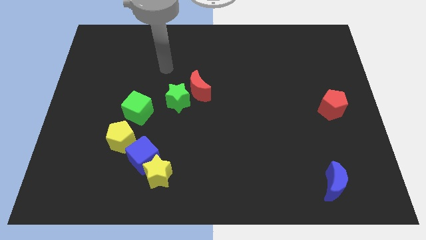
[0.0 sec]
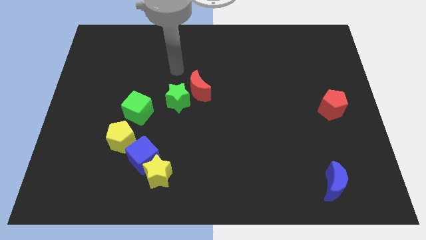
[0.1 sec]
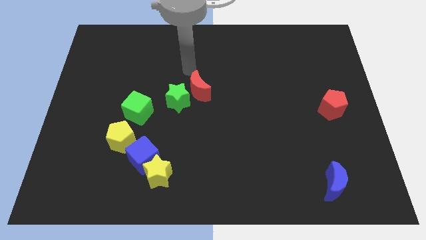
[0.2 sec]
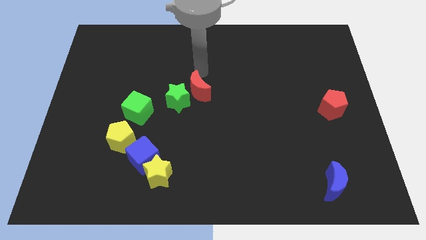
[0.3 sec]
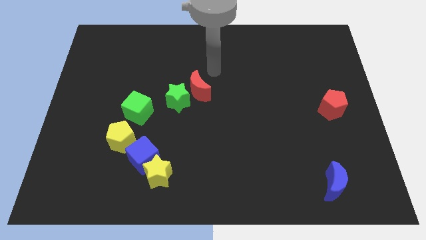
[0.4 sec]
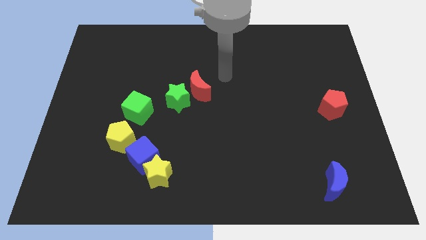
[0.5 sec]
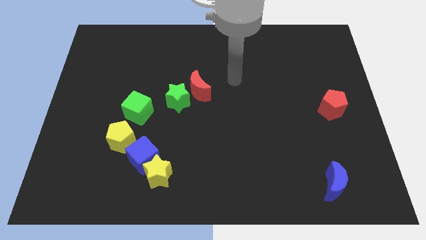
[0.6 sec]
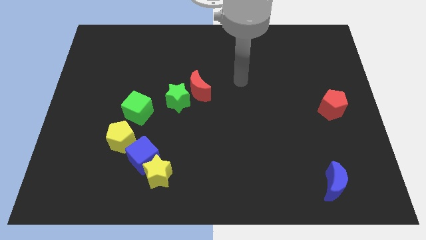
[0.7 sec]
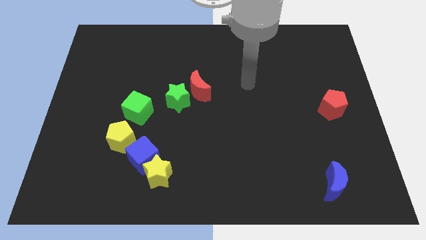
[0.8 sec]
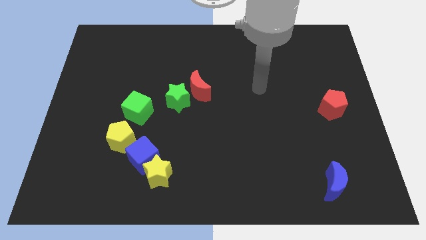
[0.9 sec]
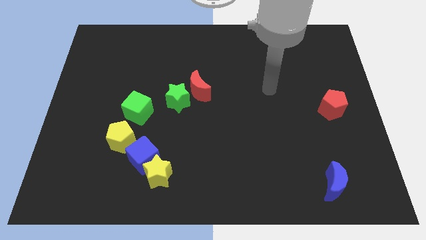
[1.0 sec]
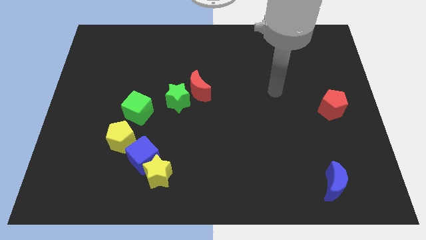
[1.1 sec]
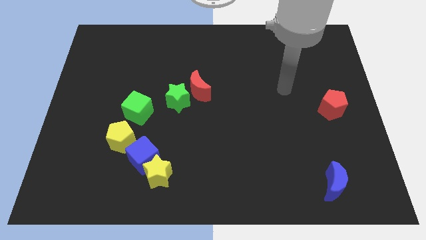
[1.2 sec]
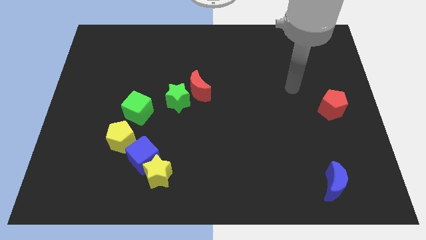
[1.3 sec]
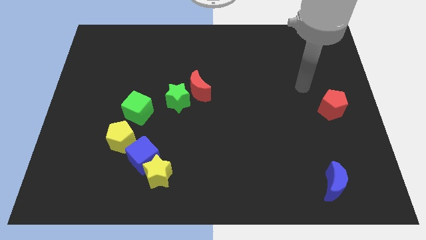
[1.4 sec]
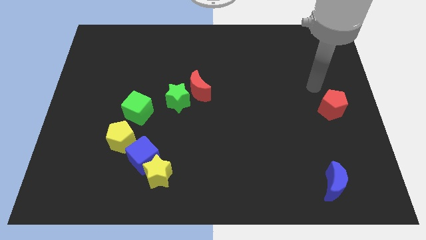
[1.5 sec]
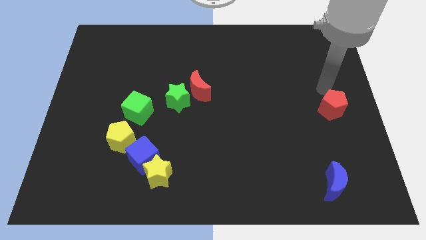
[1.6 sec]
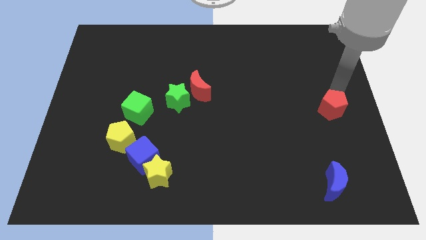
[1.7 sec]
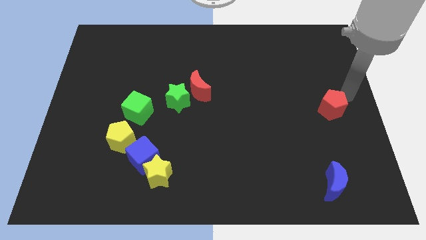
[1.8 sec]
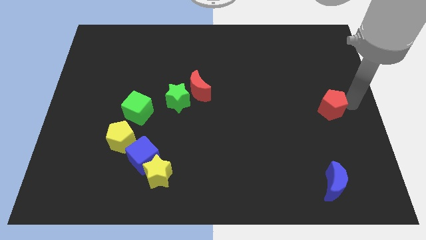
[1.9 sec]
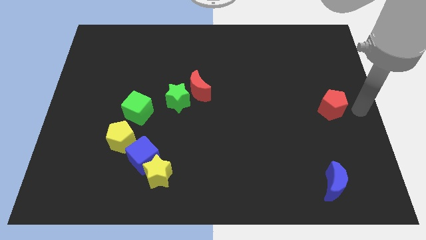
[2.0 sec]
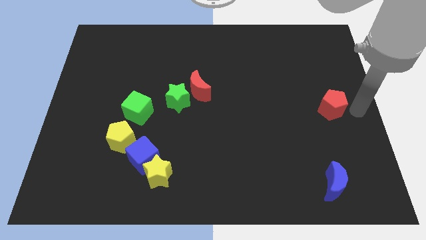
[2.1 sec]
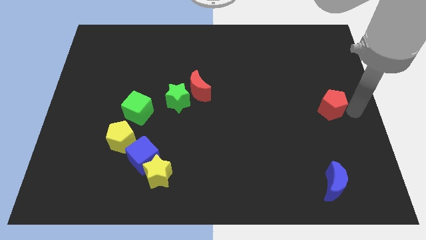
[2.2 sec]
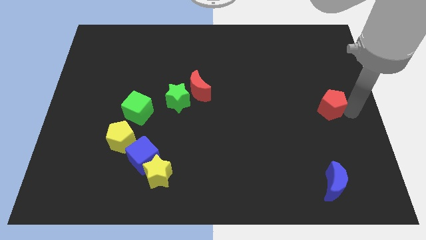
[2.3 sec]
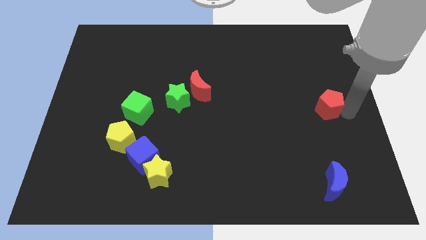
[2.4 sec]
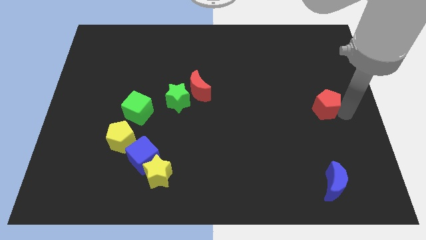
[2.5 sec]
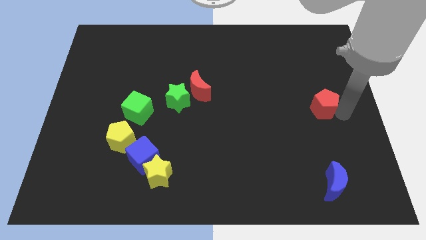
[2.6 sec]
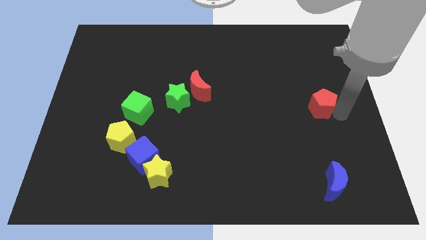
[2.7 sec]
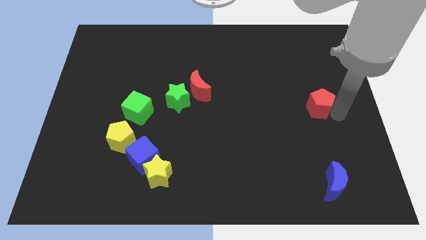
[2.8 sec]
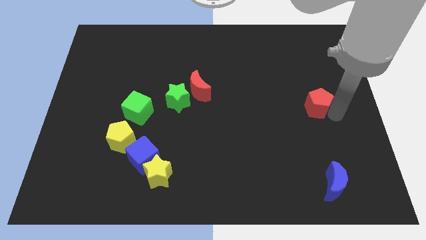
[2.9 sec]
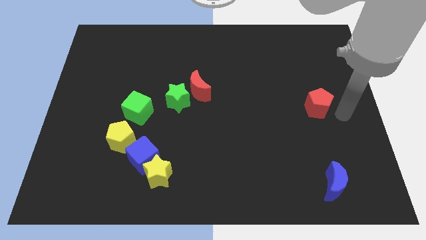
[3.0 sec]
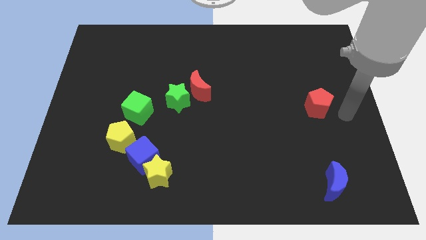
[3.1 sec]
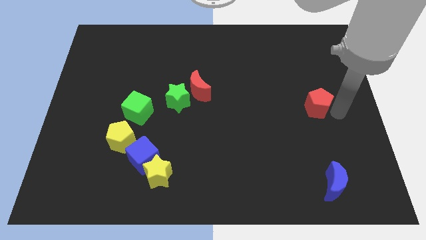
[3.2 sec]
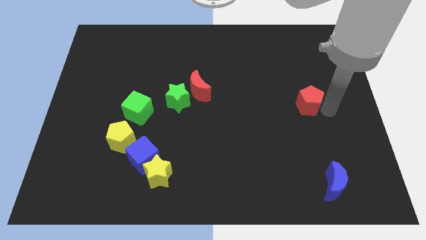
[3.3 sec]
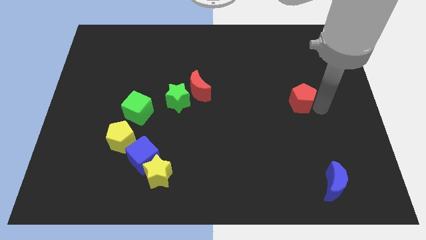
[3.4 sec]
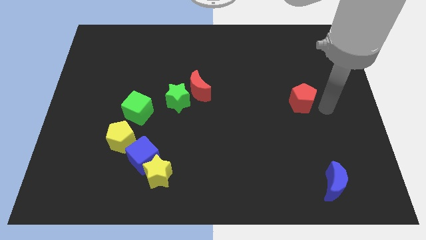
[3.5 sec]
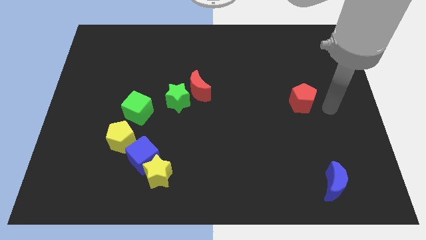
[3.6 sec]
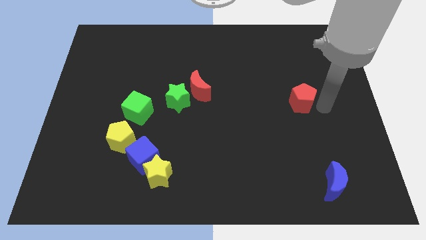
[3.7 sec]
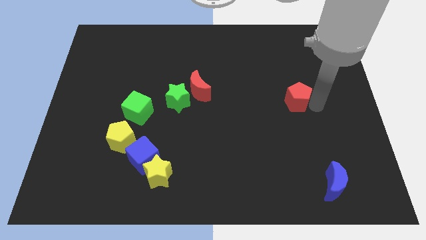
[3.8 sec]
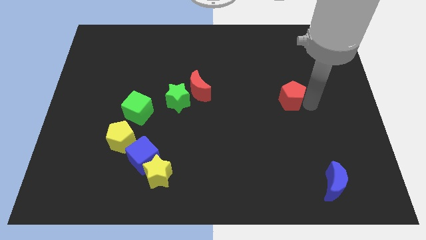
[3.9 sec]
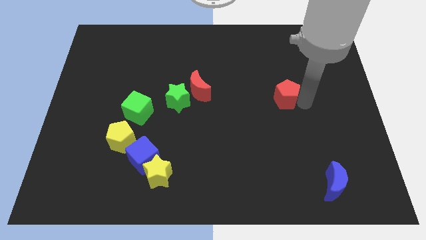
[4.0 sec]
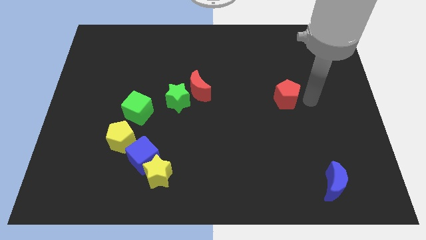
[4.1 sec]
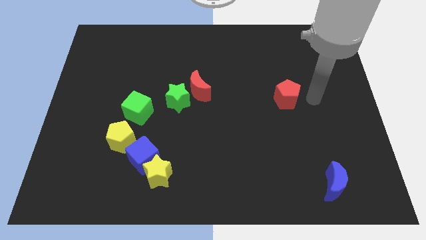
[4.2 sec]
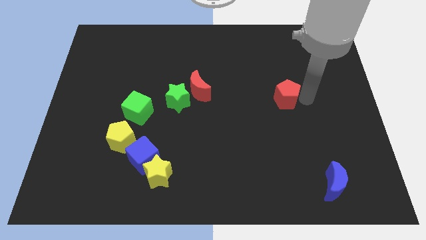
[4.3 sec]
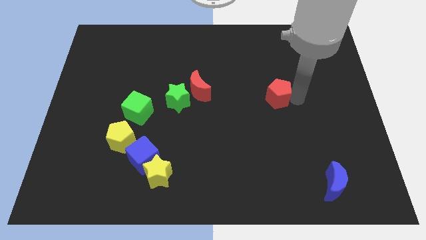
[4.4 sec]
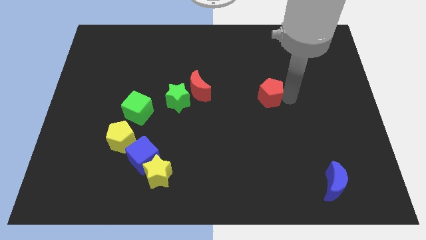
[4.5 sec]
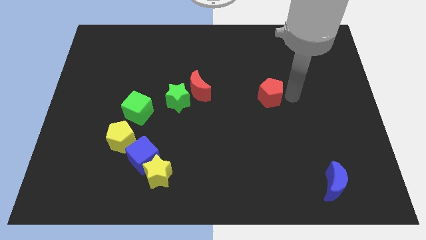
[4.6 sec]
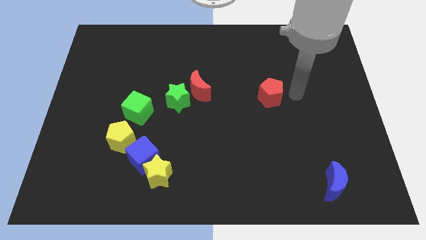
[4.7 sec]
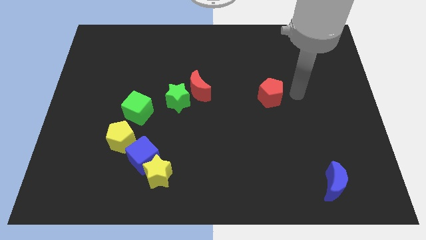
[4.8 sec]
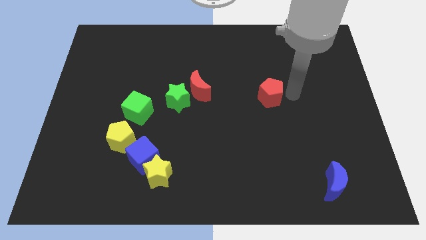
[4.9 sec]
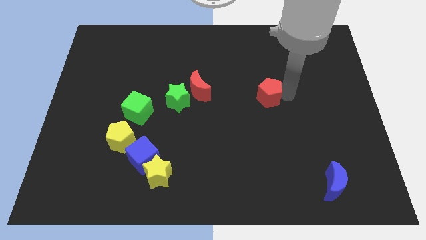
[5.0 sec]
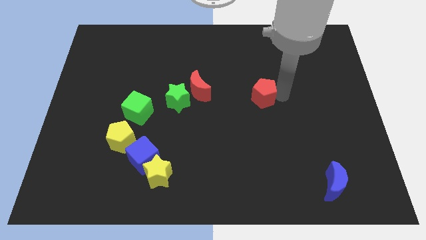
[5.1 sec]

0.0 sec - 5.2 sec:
move the red pentagon to the middle

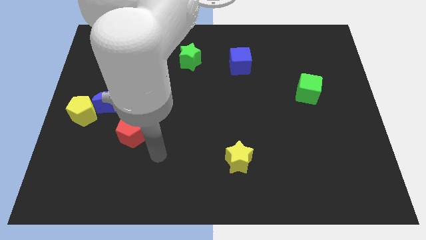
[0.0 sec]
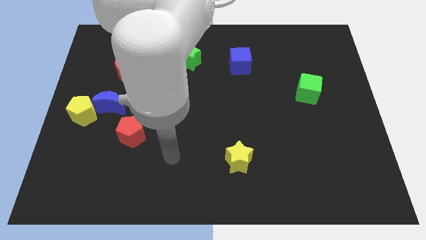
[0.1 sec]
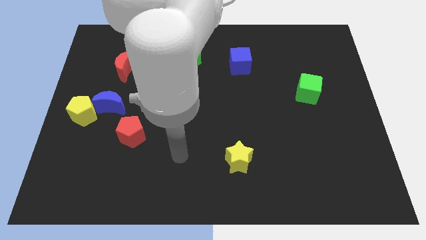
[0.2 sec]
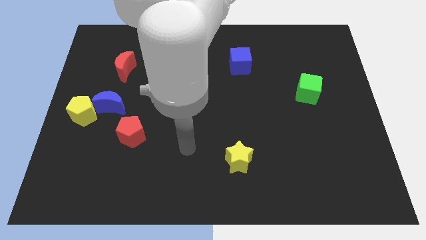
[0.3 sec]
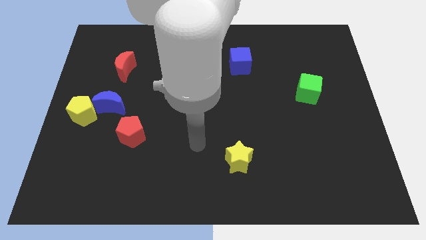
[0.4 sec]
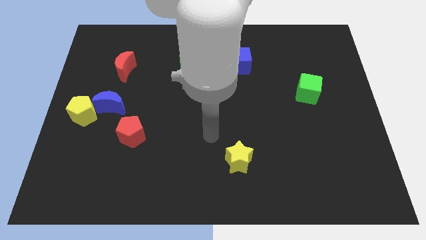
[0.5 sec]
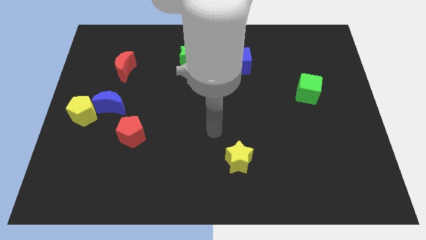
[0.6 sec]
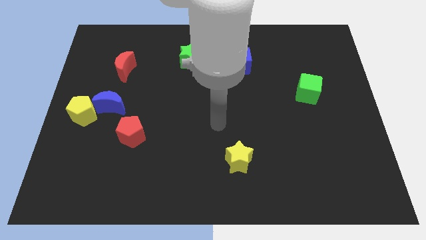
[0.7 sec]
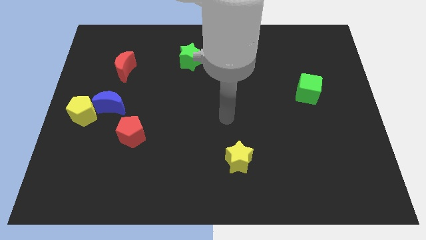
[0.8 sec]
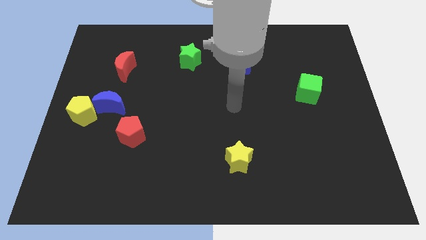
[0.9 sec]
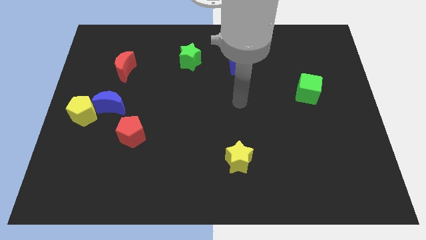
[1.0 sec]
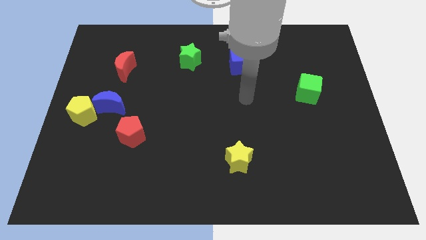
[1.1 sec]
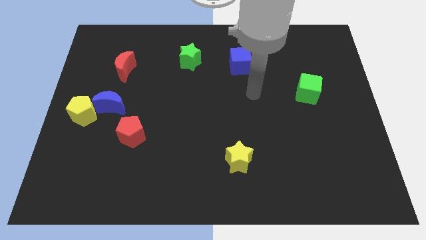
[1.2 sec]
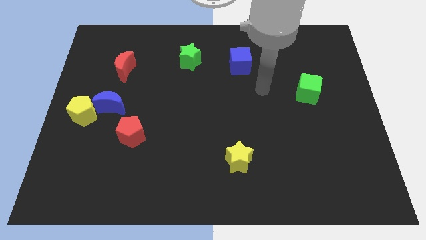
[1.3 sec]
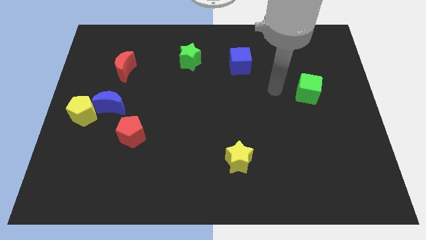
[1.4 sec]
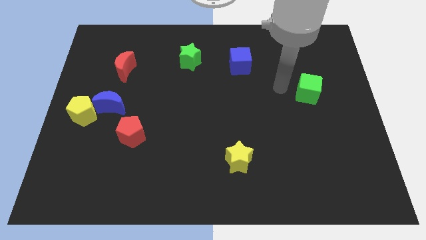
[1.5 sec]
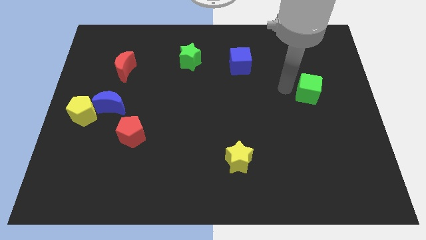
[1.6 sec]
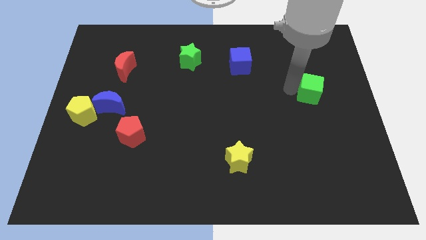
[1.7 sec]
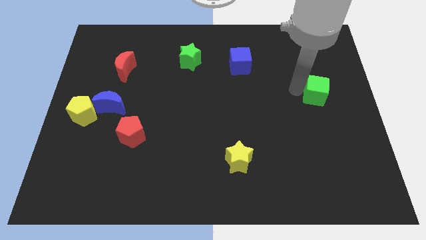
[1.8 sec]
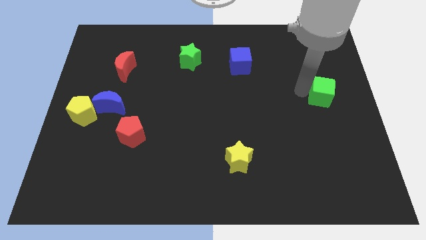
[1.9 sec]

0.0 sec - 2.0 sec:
put the green cube to the right side
